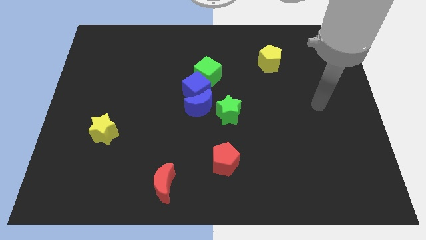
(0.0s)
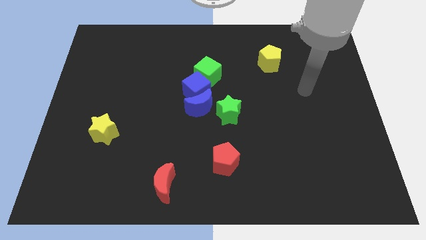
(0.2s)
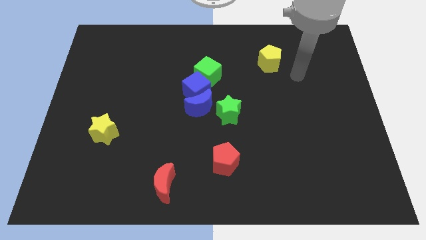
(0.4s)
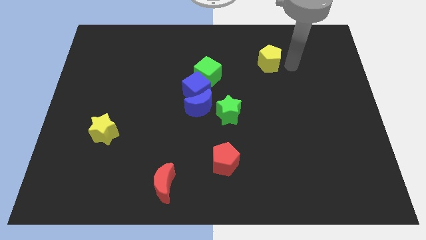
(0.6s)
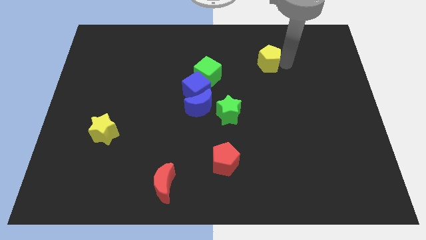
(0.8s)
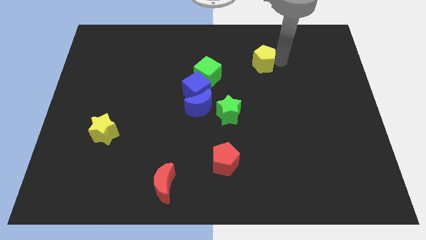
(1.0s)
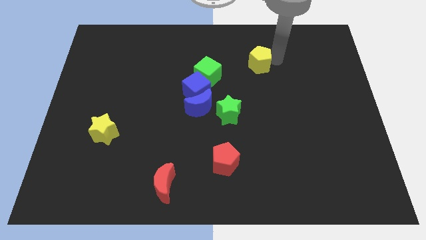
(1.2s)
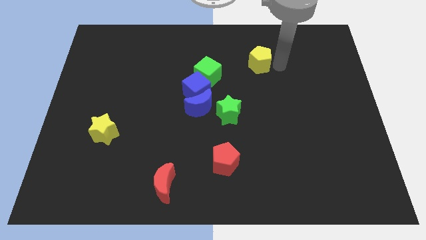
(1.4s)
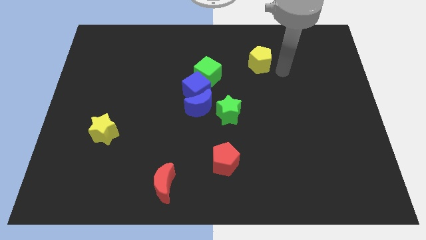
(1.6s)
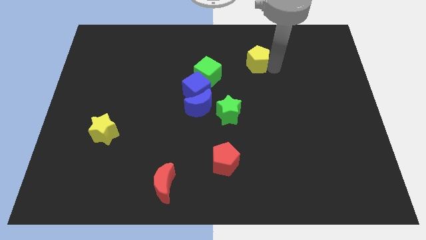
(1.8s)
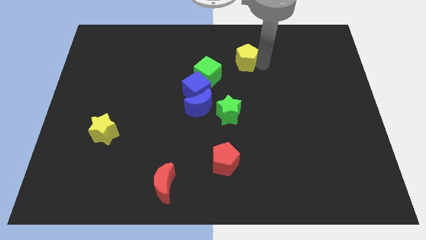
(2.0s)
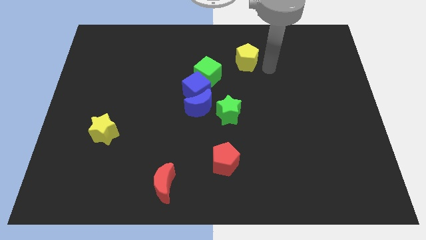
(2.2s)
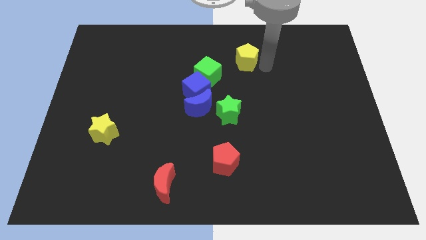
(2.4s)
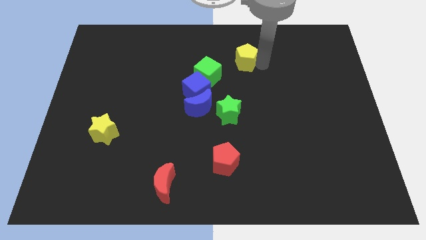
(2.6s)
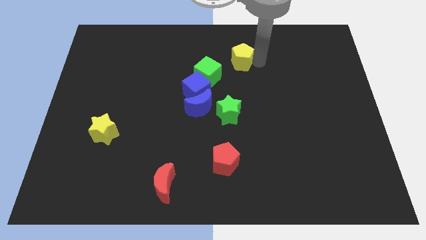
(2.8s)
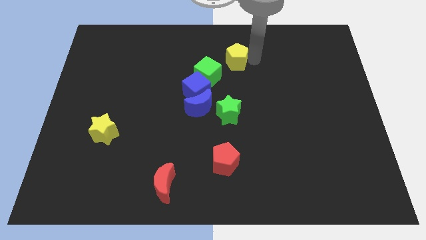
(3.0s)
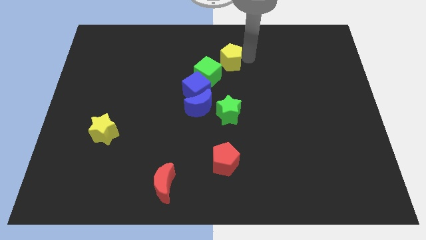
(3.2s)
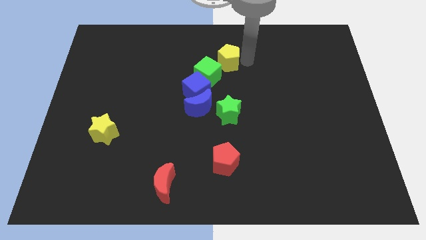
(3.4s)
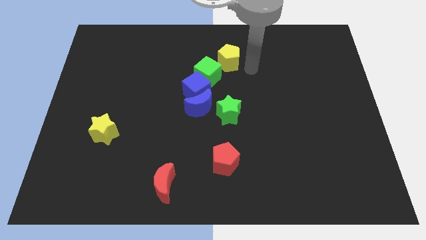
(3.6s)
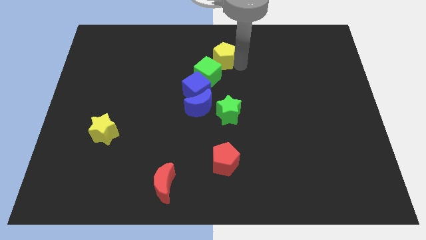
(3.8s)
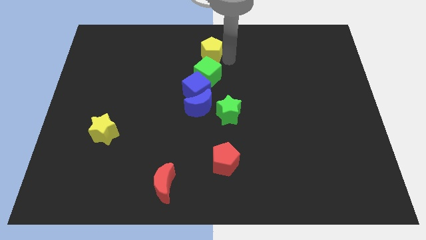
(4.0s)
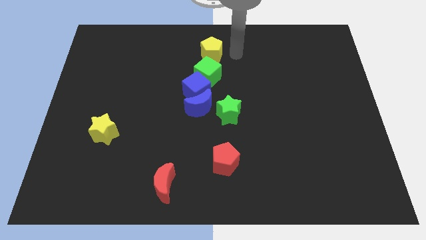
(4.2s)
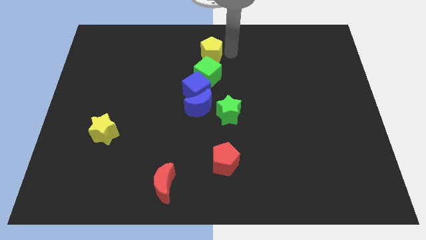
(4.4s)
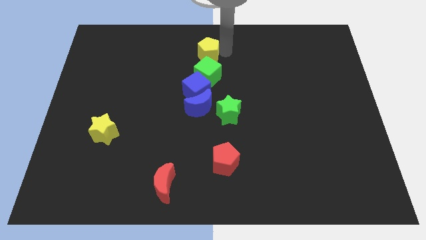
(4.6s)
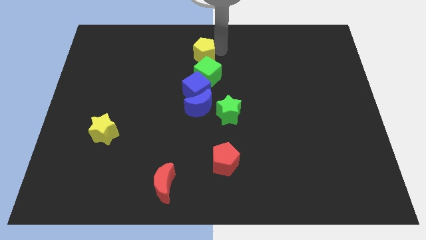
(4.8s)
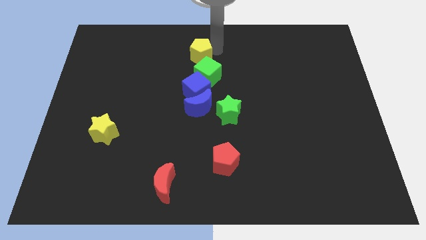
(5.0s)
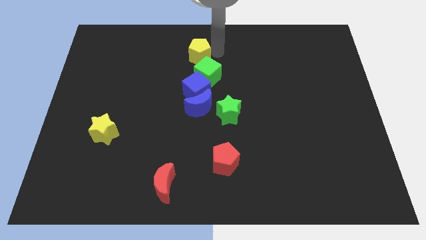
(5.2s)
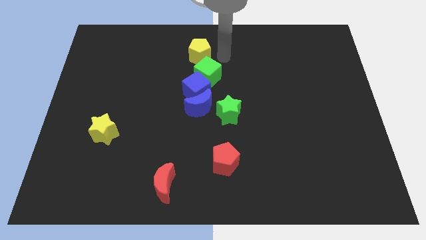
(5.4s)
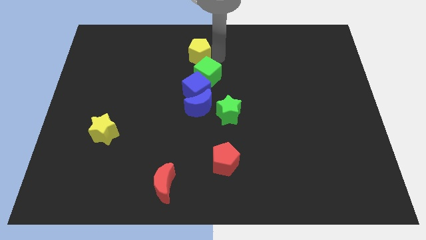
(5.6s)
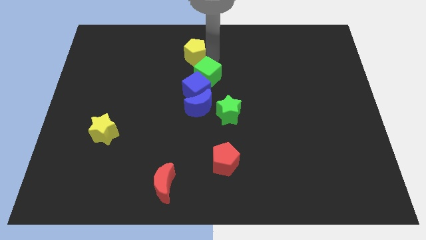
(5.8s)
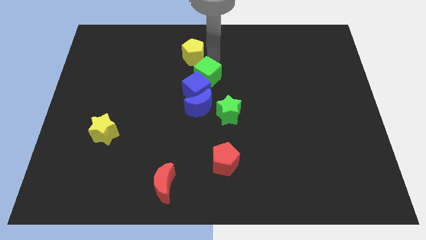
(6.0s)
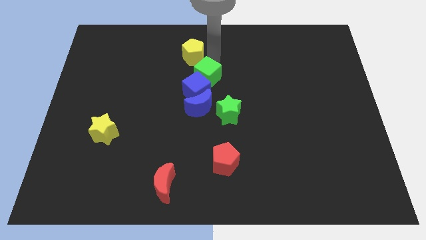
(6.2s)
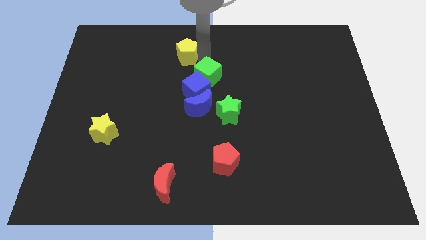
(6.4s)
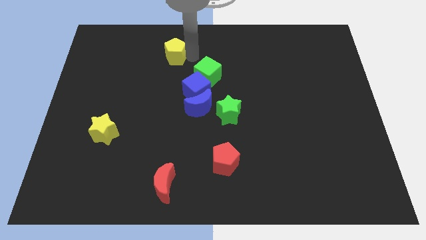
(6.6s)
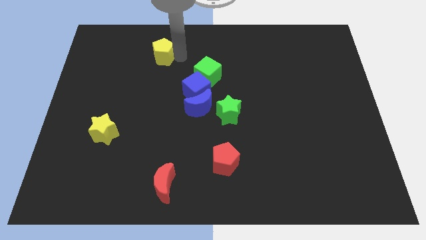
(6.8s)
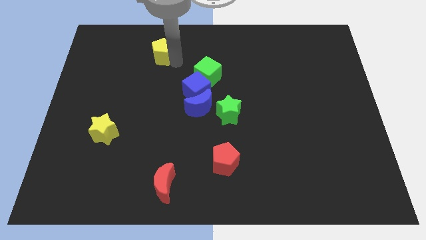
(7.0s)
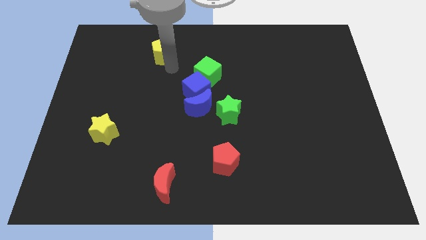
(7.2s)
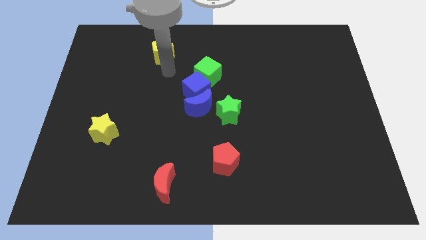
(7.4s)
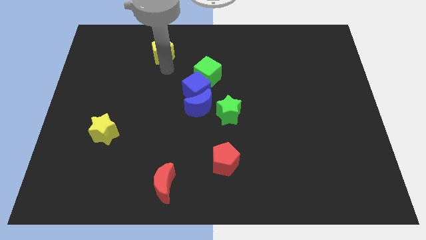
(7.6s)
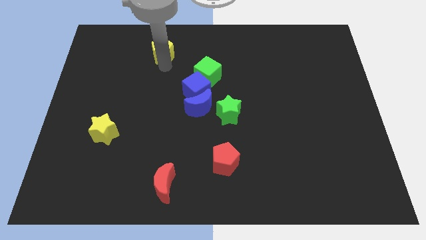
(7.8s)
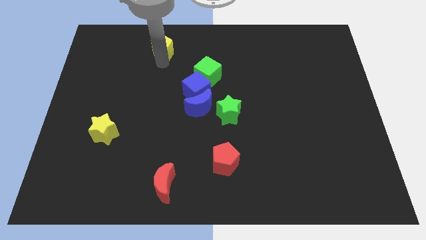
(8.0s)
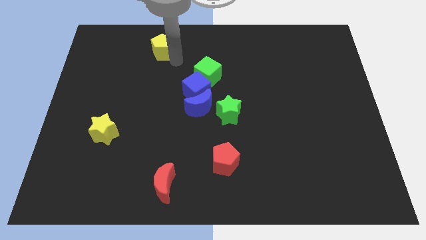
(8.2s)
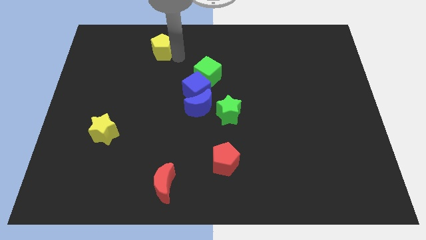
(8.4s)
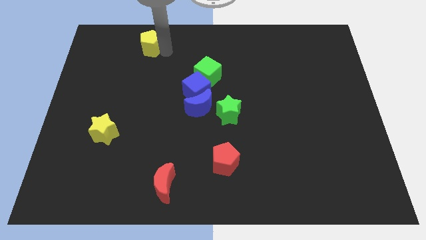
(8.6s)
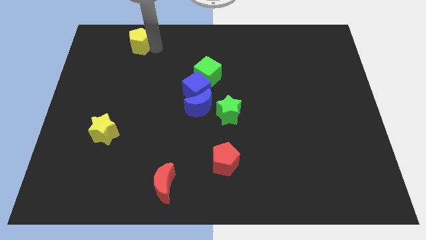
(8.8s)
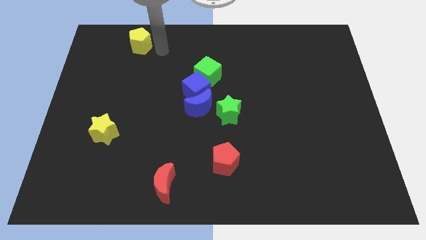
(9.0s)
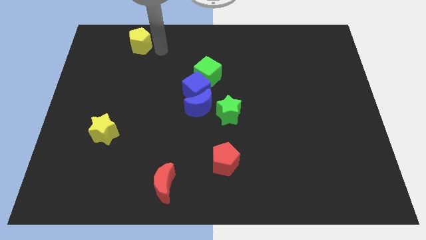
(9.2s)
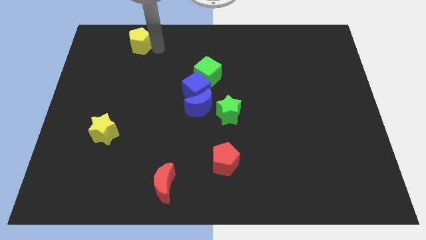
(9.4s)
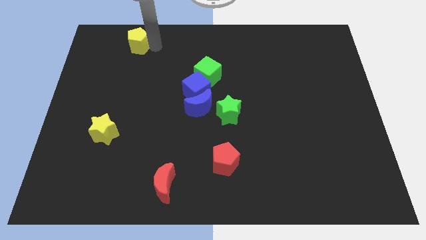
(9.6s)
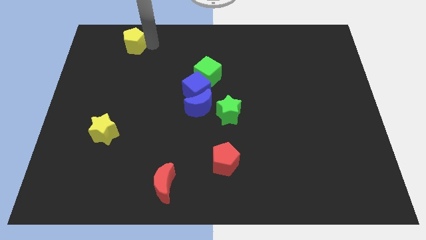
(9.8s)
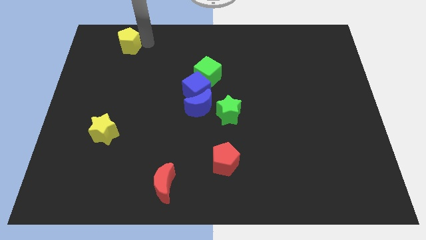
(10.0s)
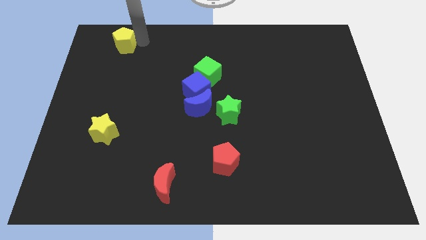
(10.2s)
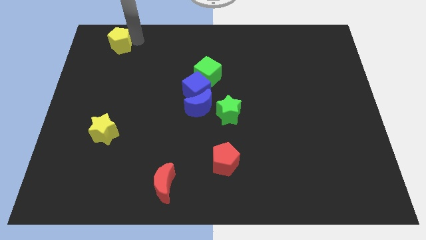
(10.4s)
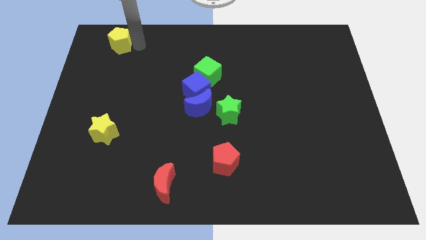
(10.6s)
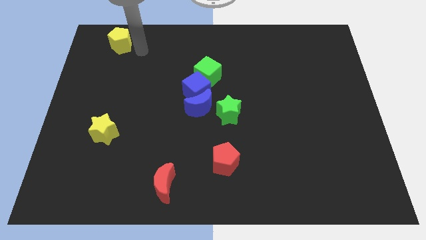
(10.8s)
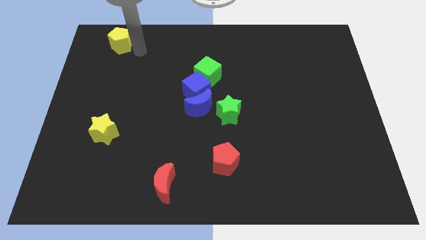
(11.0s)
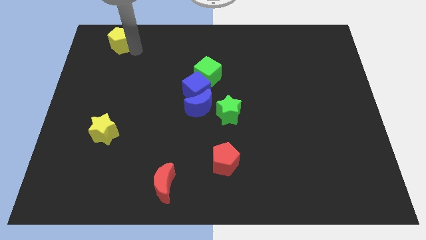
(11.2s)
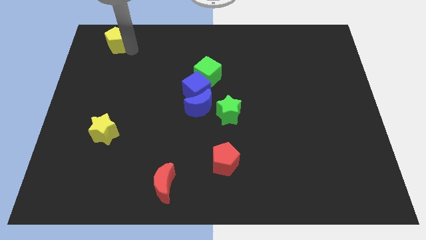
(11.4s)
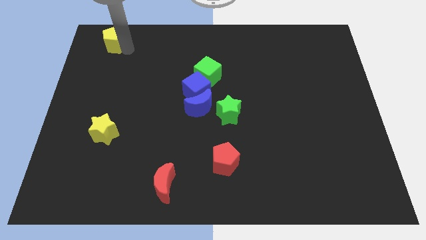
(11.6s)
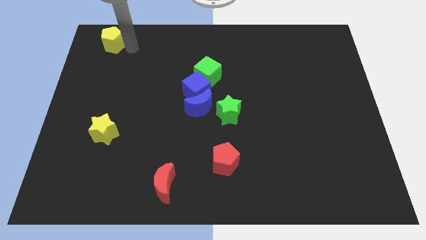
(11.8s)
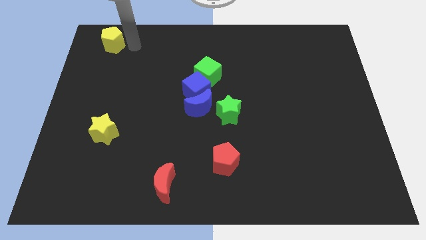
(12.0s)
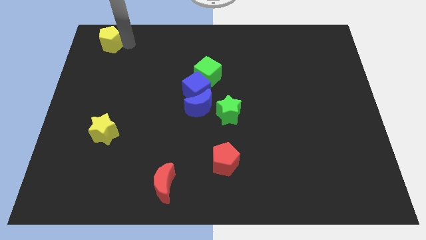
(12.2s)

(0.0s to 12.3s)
put the yellow pentagon to the upper left corner
